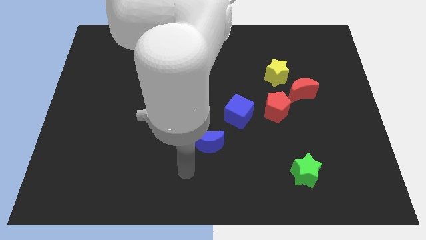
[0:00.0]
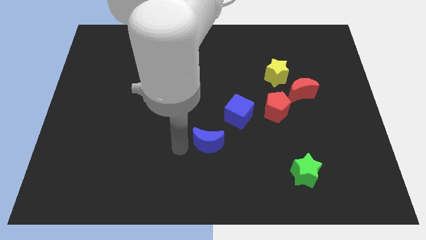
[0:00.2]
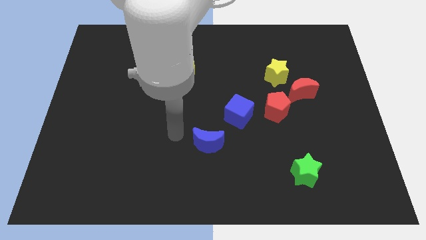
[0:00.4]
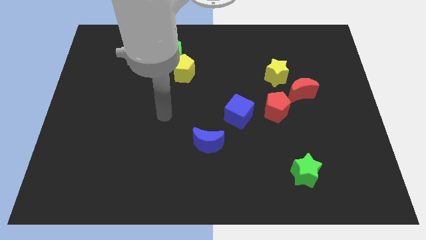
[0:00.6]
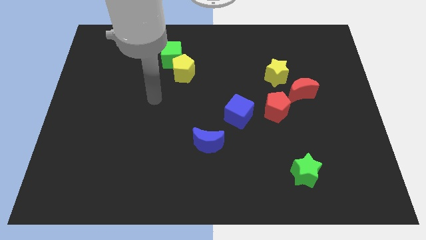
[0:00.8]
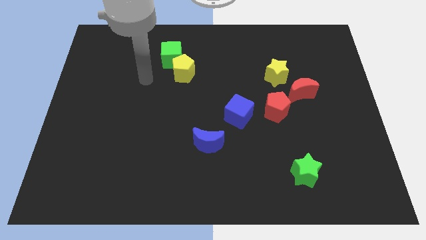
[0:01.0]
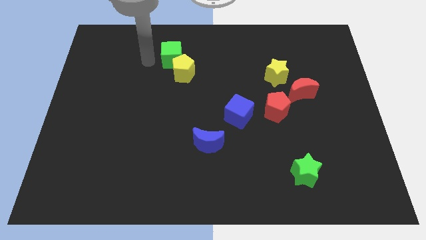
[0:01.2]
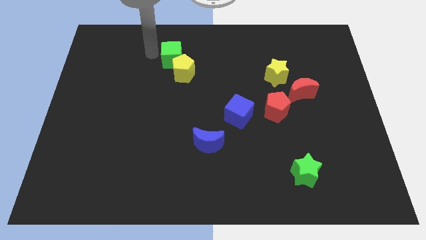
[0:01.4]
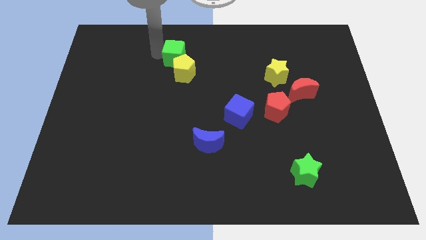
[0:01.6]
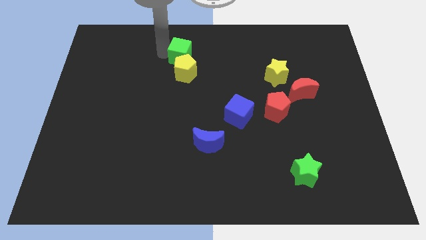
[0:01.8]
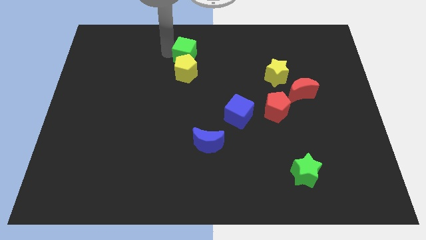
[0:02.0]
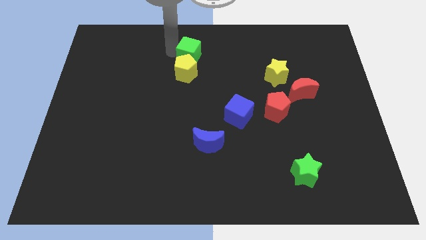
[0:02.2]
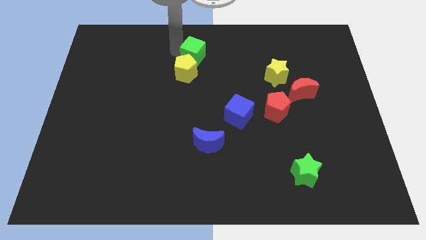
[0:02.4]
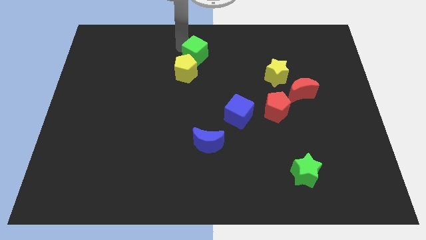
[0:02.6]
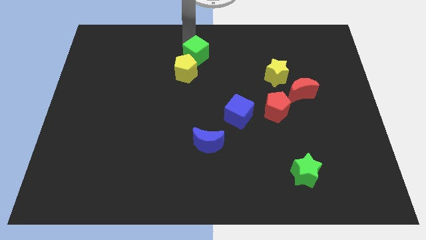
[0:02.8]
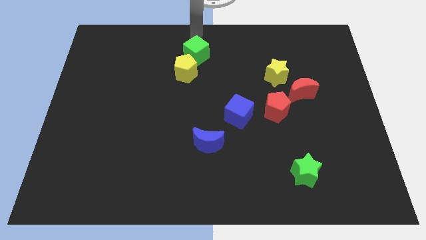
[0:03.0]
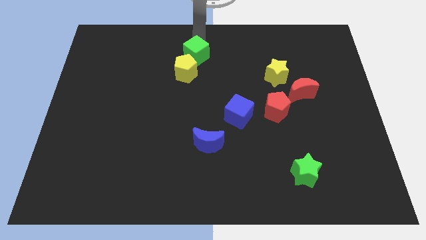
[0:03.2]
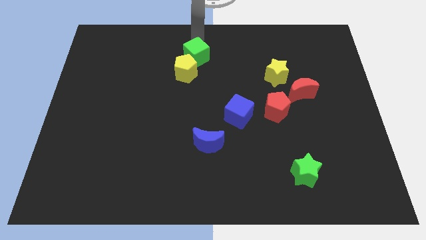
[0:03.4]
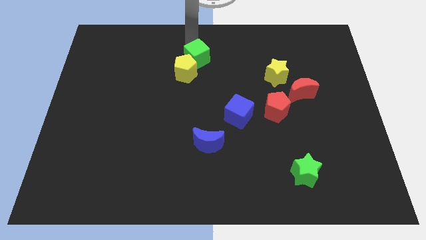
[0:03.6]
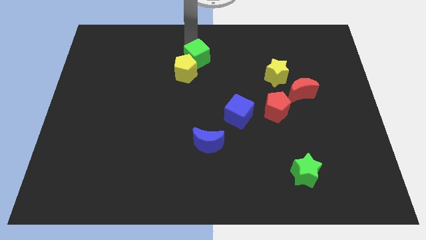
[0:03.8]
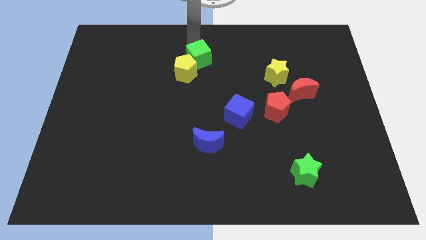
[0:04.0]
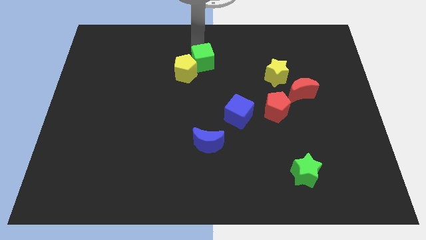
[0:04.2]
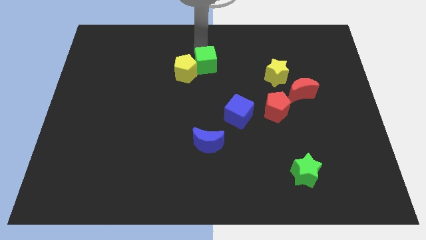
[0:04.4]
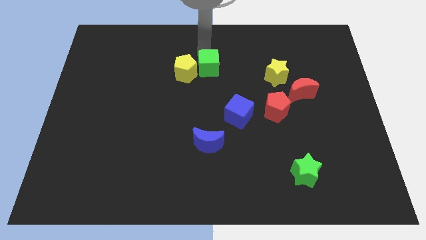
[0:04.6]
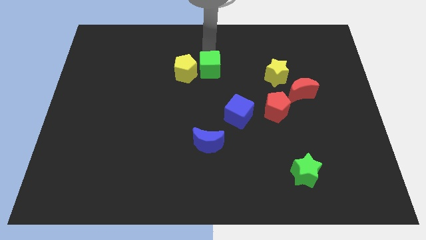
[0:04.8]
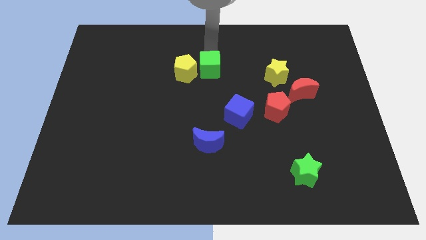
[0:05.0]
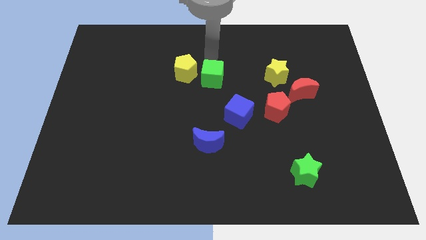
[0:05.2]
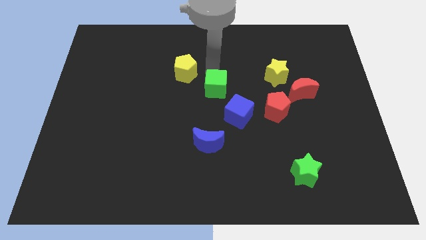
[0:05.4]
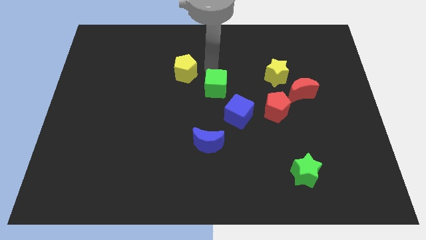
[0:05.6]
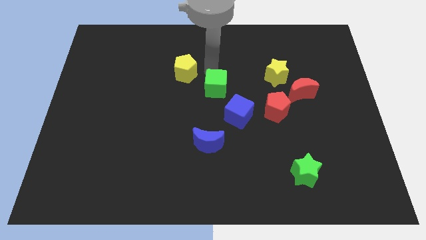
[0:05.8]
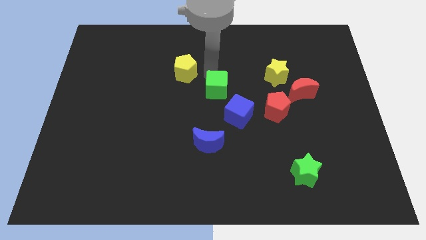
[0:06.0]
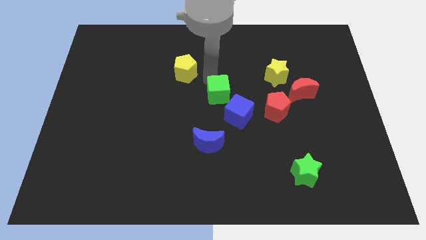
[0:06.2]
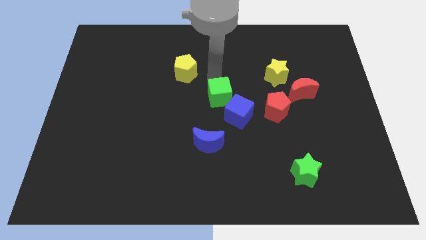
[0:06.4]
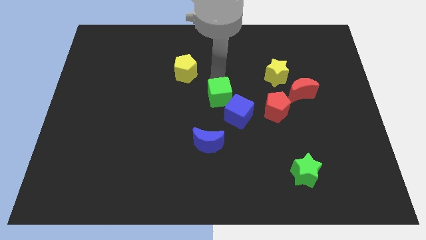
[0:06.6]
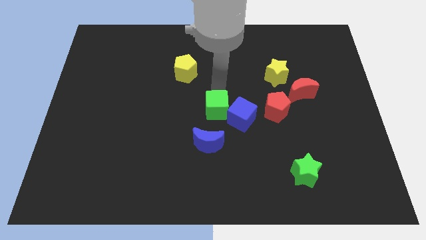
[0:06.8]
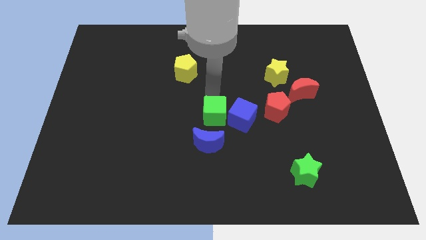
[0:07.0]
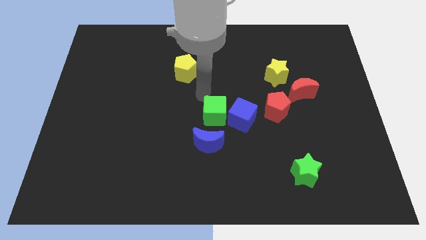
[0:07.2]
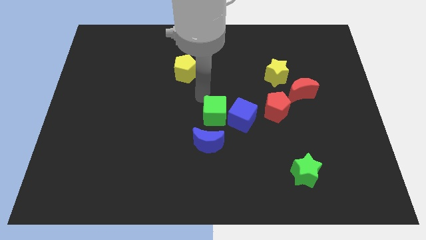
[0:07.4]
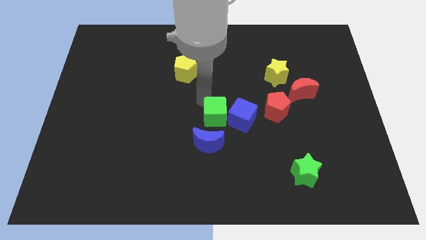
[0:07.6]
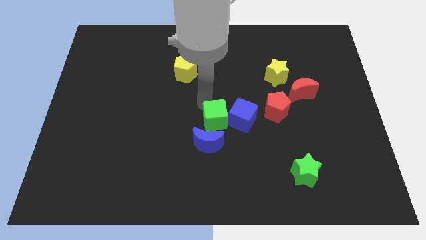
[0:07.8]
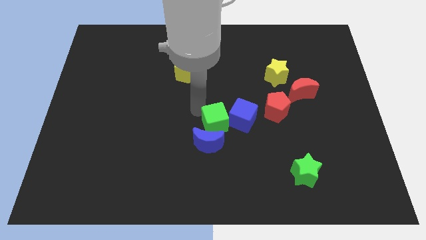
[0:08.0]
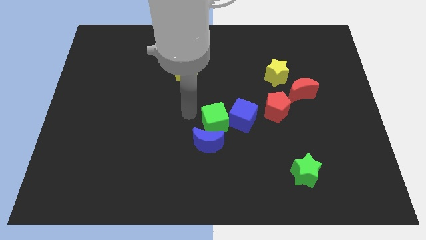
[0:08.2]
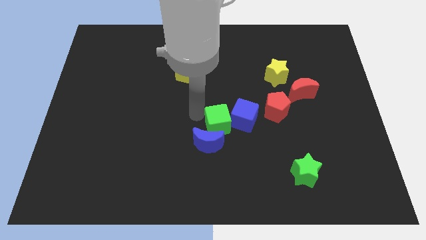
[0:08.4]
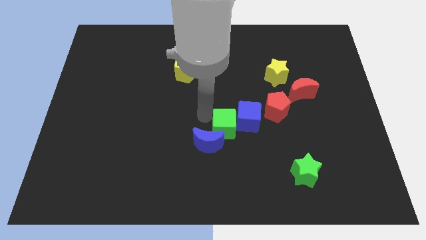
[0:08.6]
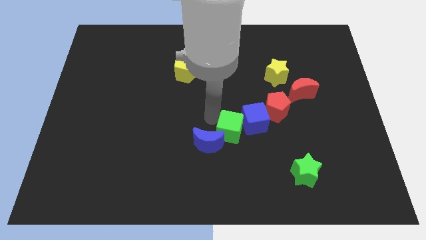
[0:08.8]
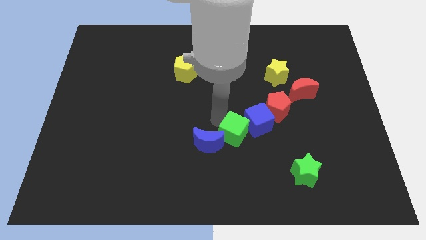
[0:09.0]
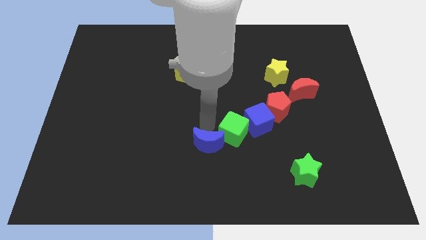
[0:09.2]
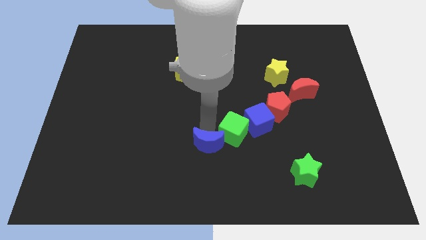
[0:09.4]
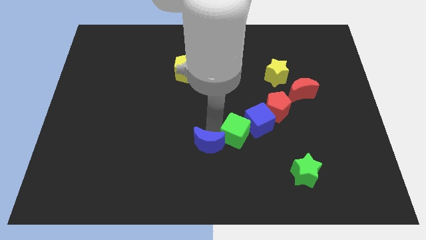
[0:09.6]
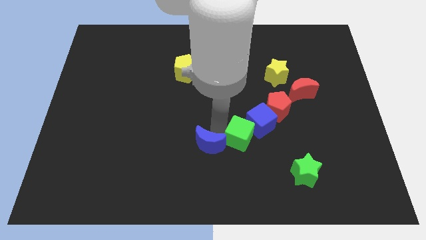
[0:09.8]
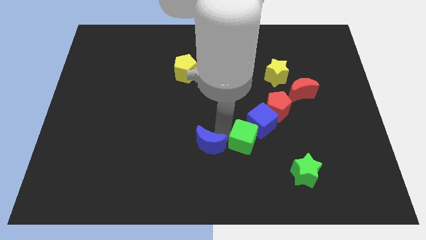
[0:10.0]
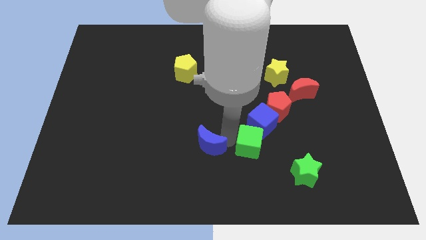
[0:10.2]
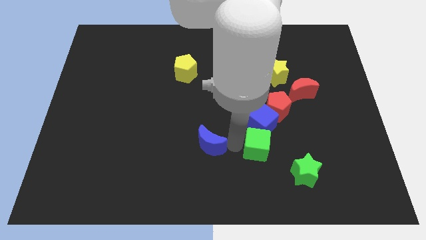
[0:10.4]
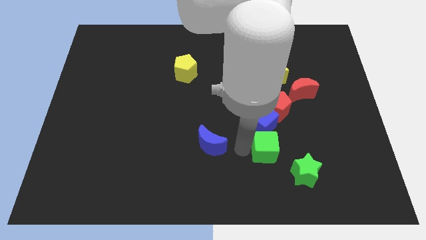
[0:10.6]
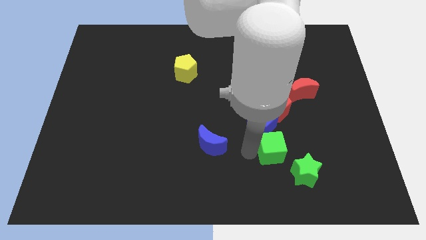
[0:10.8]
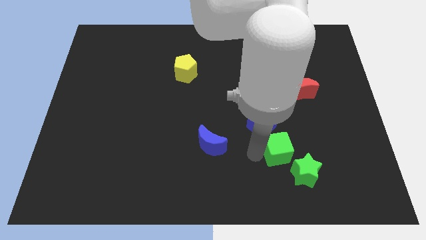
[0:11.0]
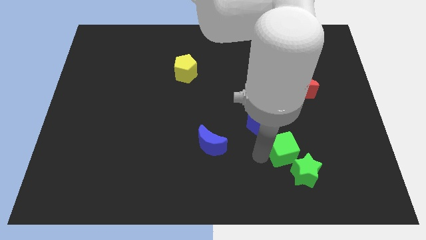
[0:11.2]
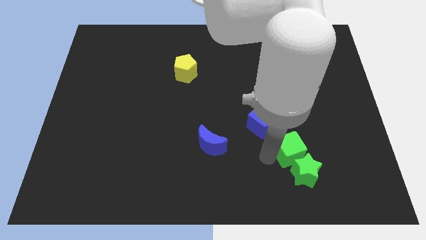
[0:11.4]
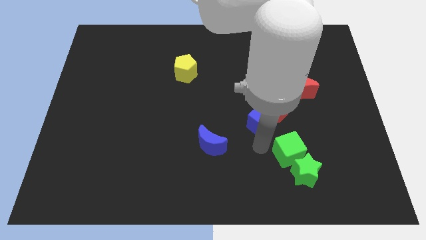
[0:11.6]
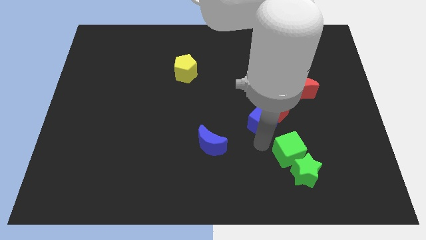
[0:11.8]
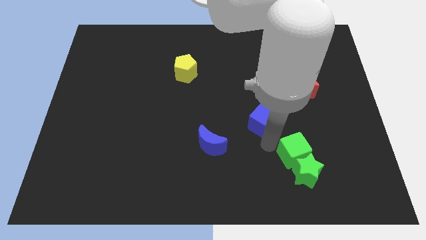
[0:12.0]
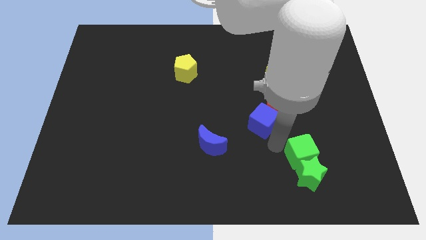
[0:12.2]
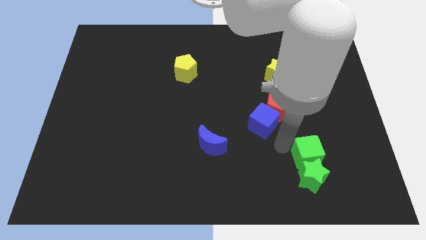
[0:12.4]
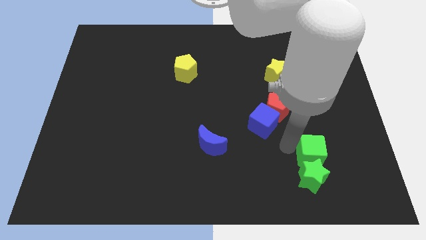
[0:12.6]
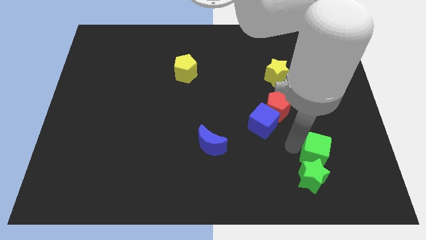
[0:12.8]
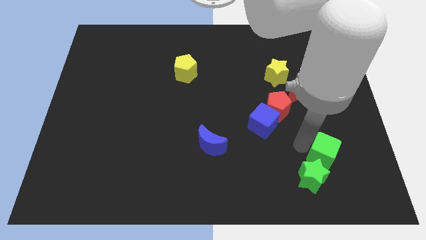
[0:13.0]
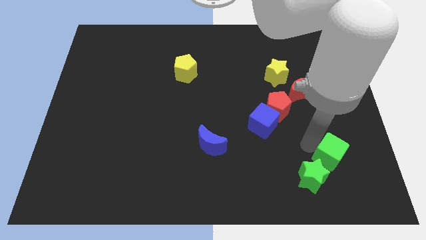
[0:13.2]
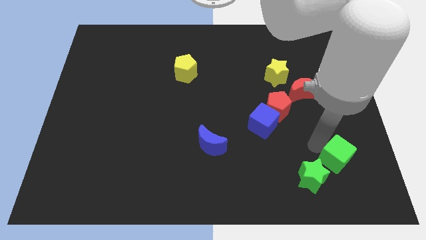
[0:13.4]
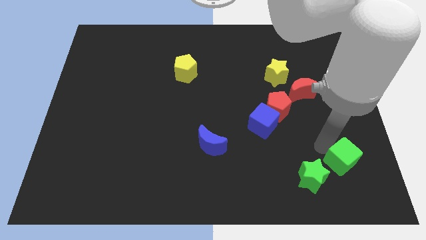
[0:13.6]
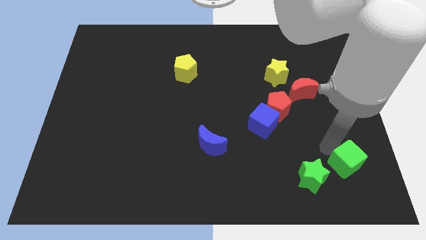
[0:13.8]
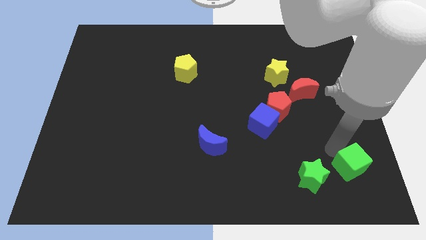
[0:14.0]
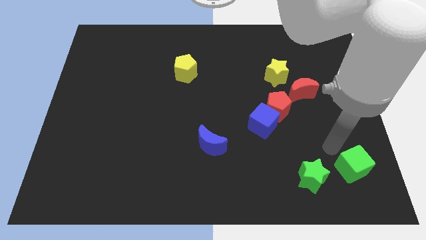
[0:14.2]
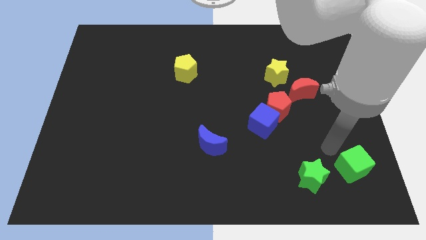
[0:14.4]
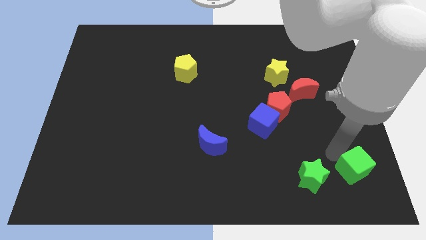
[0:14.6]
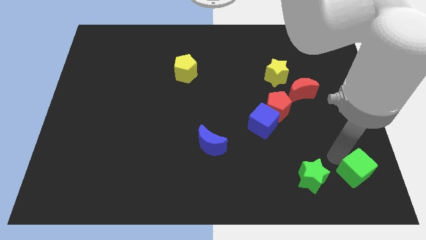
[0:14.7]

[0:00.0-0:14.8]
slide the green cube to the bottom right
